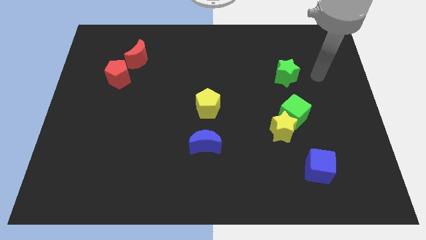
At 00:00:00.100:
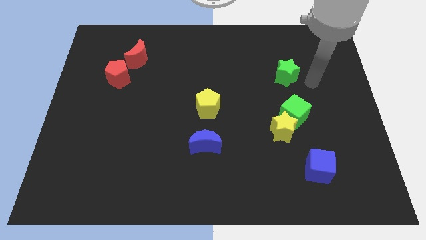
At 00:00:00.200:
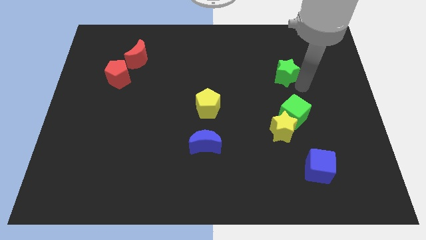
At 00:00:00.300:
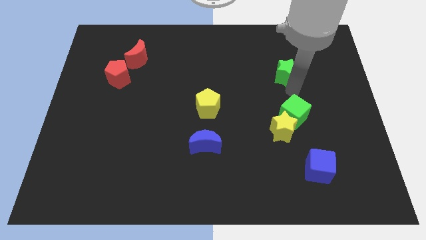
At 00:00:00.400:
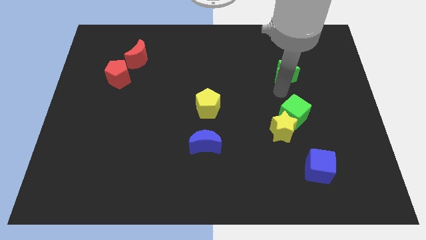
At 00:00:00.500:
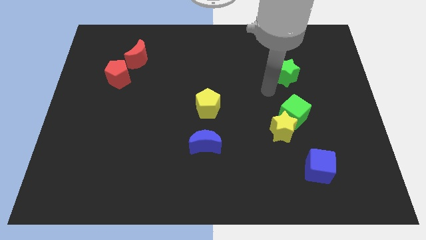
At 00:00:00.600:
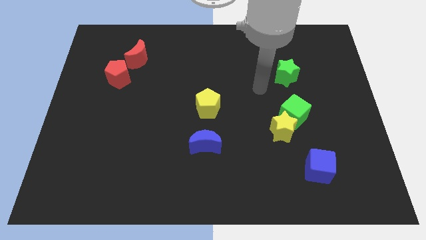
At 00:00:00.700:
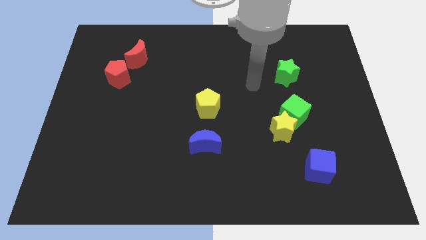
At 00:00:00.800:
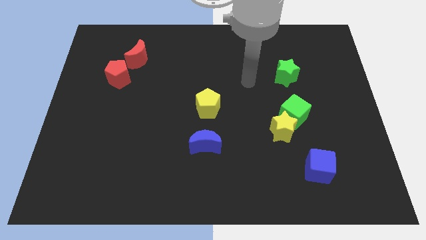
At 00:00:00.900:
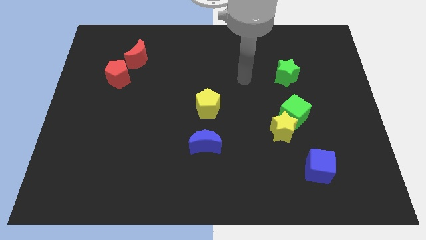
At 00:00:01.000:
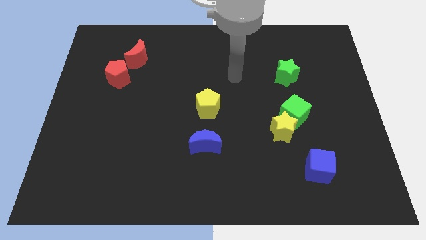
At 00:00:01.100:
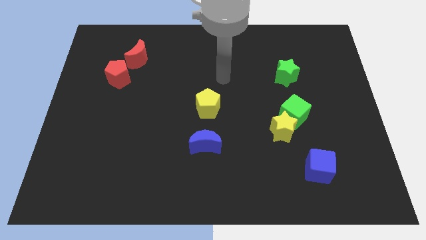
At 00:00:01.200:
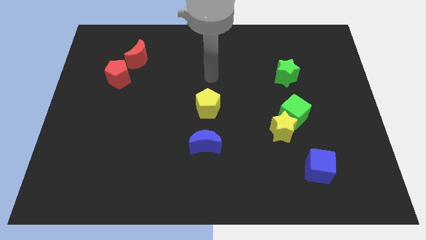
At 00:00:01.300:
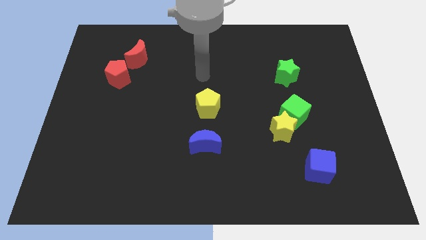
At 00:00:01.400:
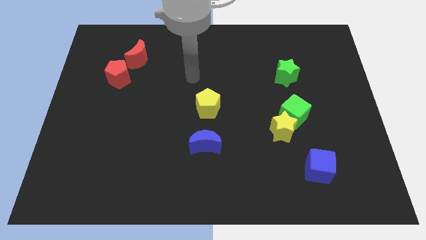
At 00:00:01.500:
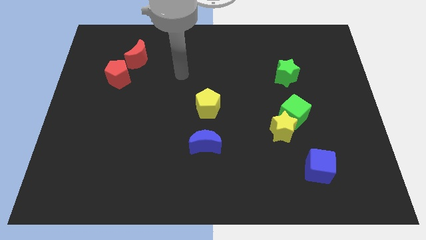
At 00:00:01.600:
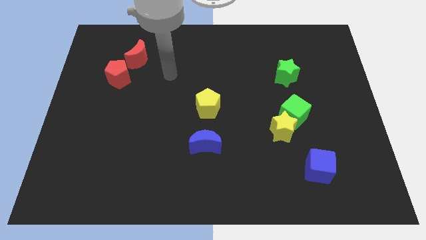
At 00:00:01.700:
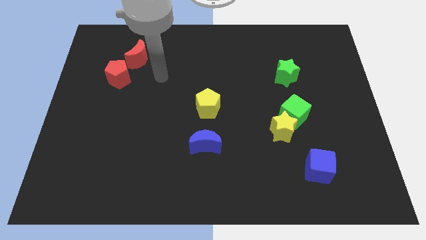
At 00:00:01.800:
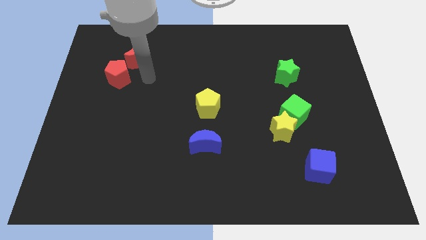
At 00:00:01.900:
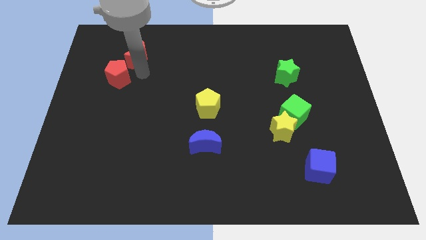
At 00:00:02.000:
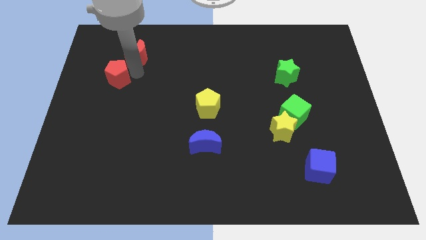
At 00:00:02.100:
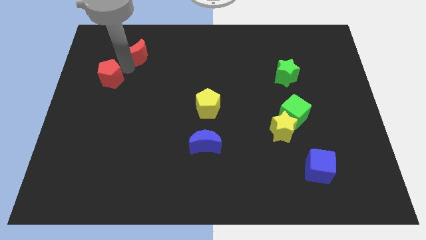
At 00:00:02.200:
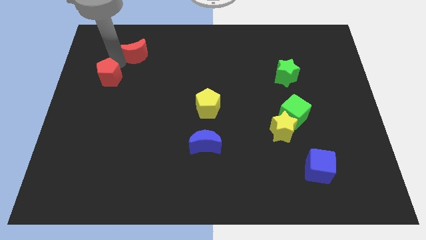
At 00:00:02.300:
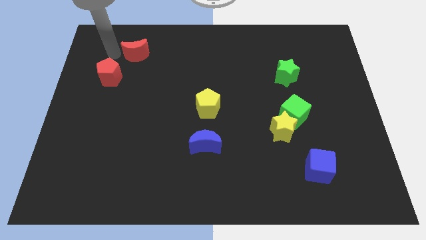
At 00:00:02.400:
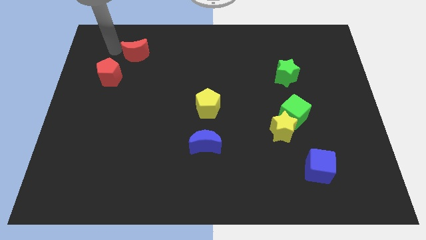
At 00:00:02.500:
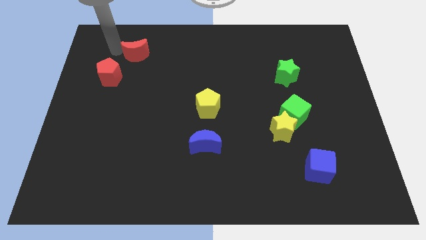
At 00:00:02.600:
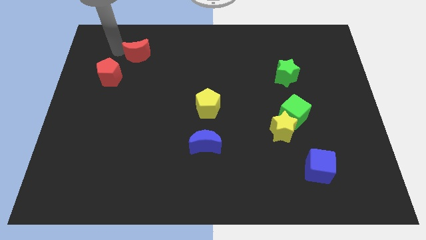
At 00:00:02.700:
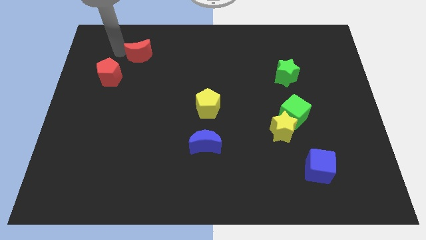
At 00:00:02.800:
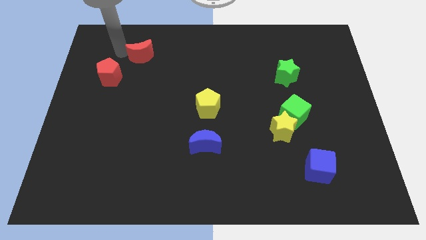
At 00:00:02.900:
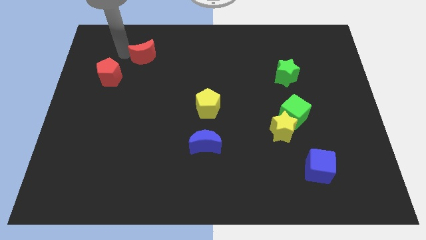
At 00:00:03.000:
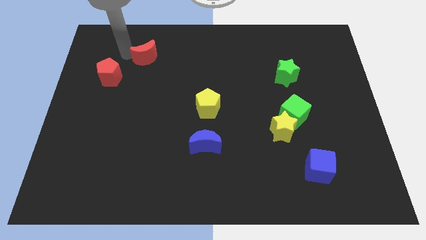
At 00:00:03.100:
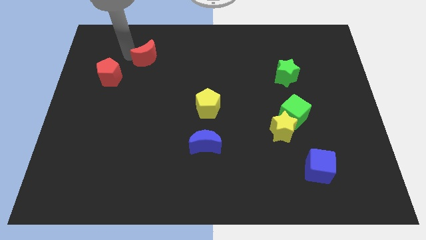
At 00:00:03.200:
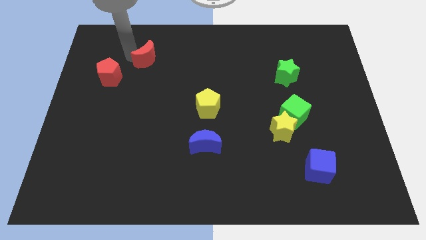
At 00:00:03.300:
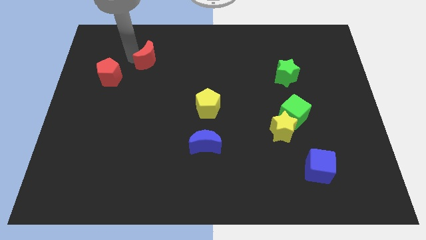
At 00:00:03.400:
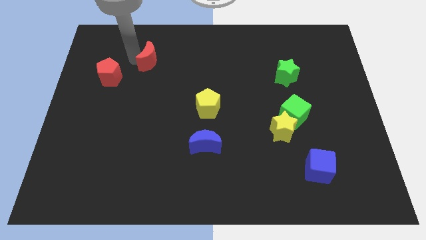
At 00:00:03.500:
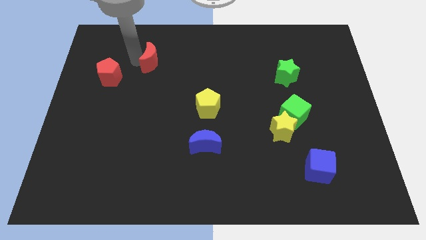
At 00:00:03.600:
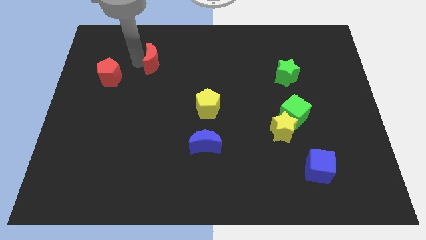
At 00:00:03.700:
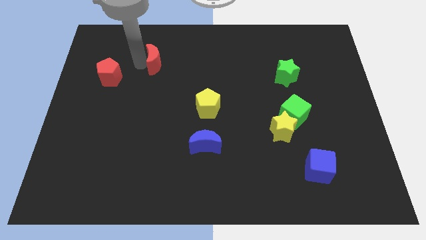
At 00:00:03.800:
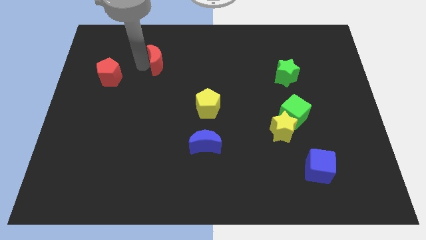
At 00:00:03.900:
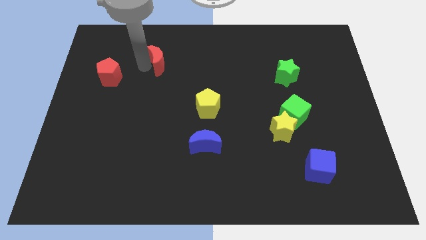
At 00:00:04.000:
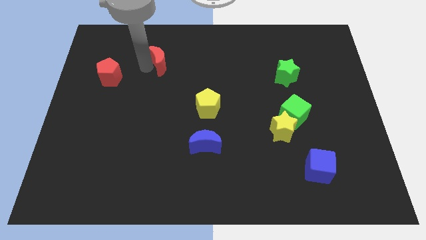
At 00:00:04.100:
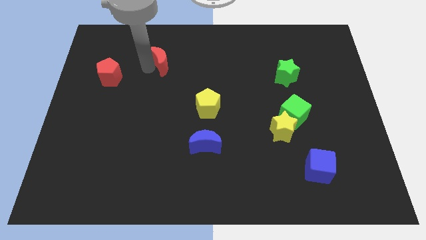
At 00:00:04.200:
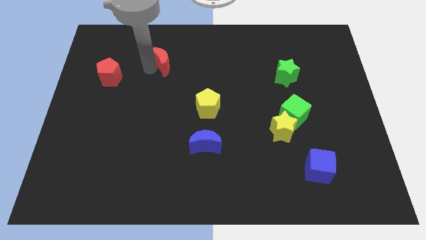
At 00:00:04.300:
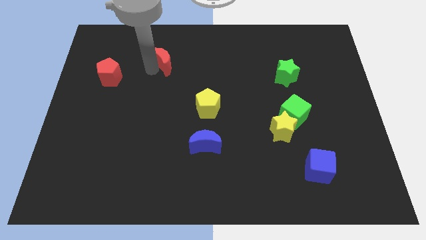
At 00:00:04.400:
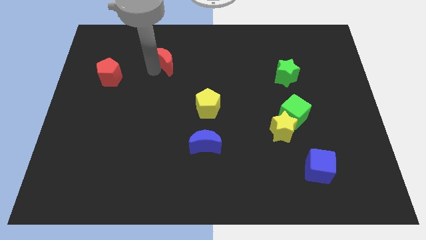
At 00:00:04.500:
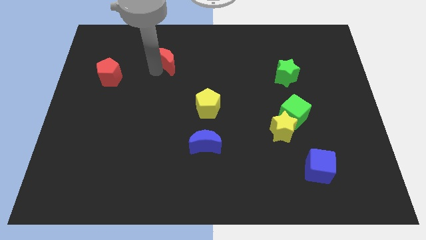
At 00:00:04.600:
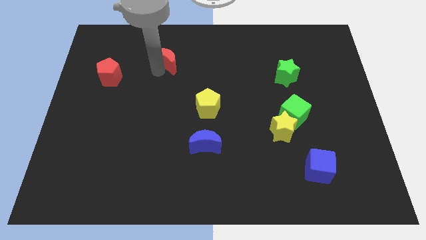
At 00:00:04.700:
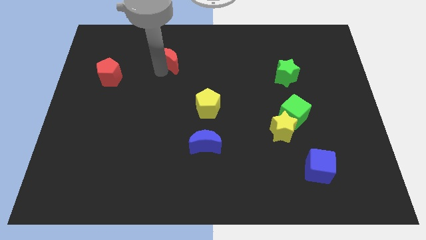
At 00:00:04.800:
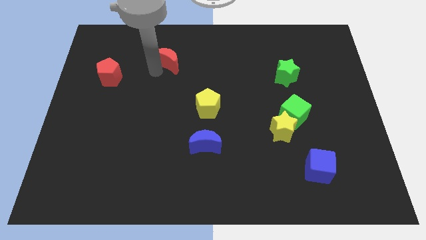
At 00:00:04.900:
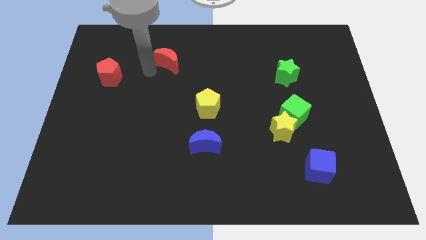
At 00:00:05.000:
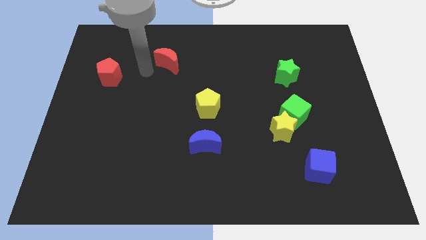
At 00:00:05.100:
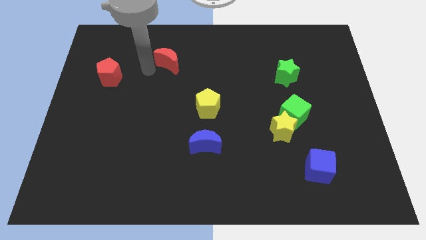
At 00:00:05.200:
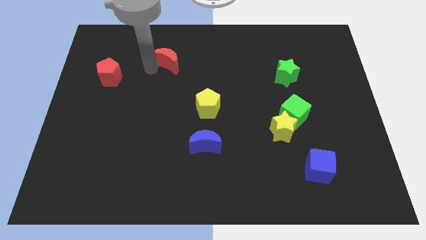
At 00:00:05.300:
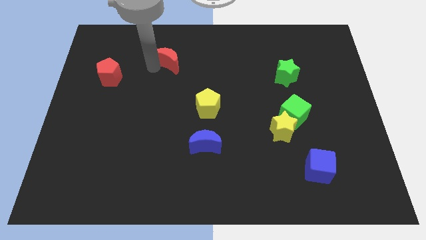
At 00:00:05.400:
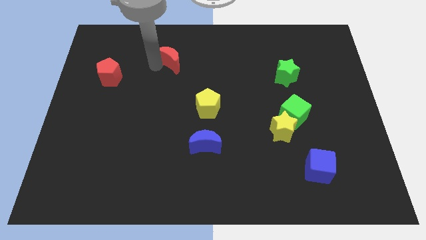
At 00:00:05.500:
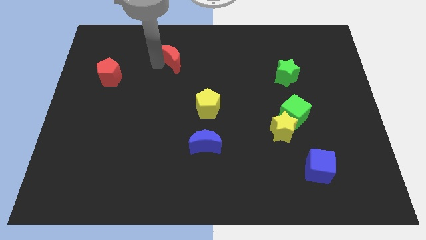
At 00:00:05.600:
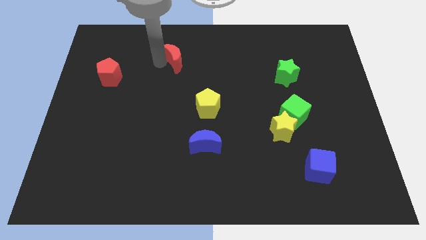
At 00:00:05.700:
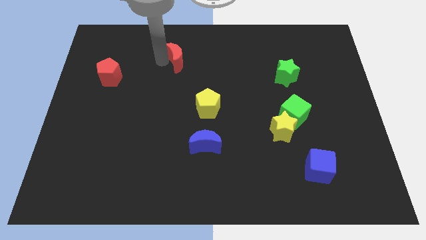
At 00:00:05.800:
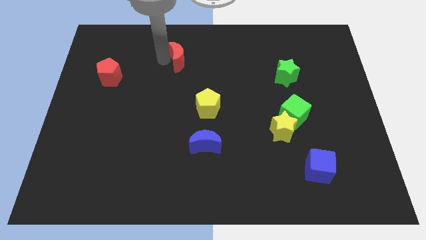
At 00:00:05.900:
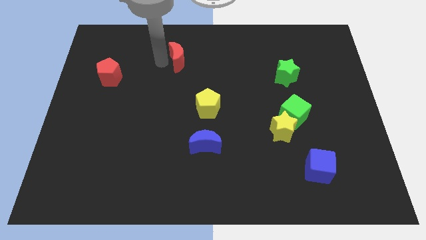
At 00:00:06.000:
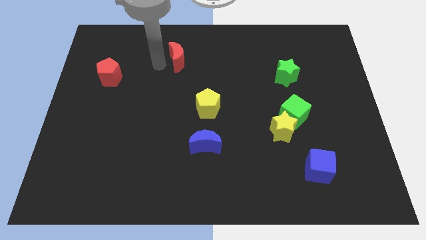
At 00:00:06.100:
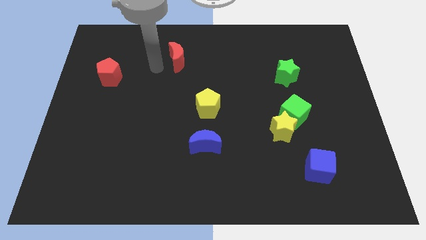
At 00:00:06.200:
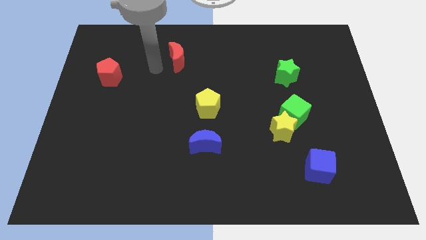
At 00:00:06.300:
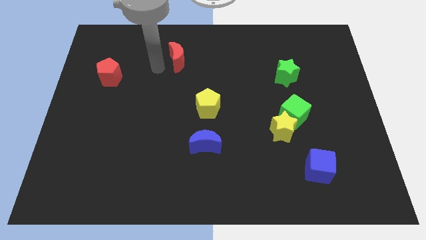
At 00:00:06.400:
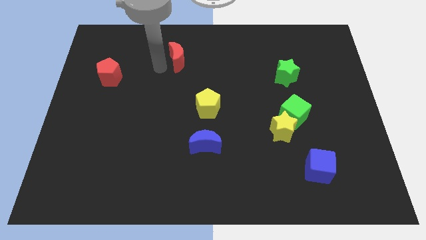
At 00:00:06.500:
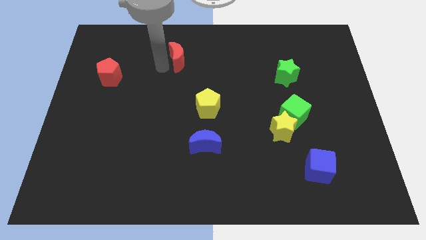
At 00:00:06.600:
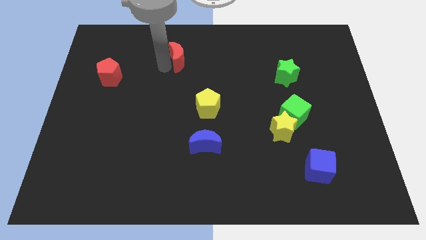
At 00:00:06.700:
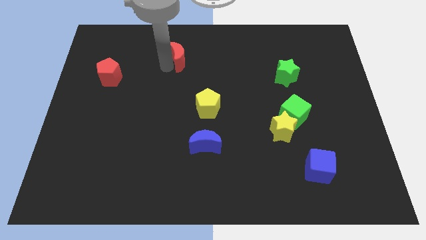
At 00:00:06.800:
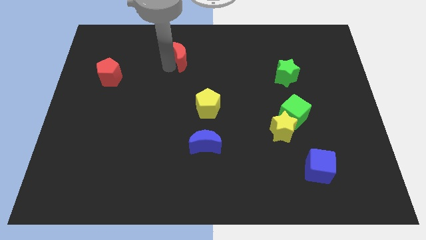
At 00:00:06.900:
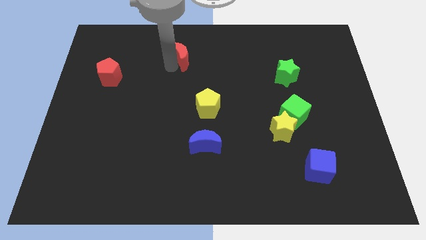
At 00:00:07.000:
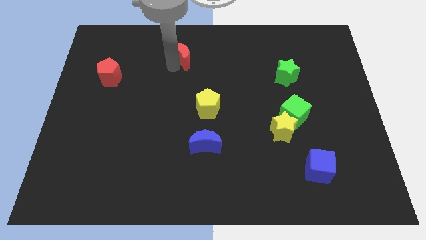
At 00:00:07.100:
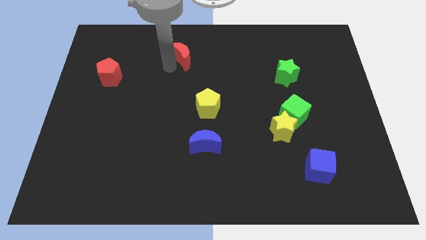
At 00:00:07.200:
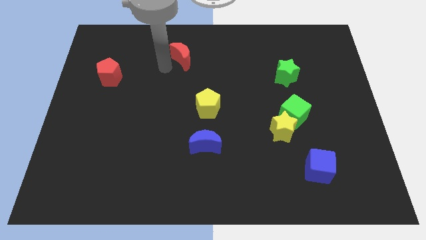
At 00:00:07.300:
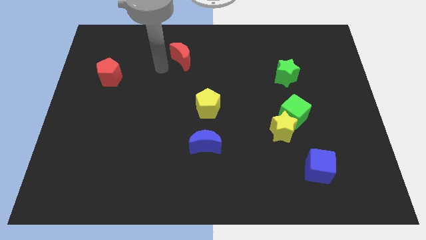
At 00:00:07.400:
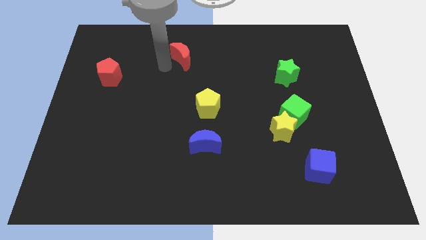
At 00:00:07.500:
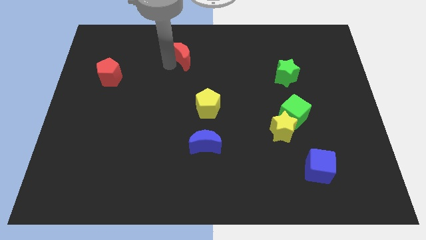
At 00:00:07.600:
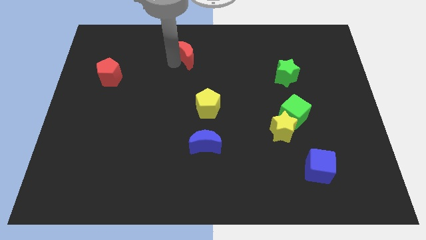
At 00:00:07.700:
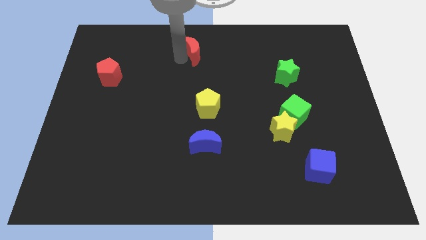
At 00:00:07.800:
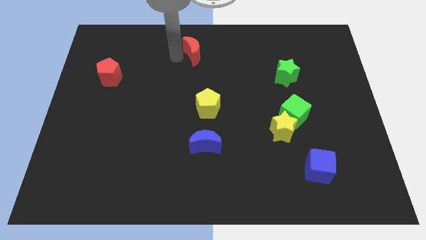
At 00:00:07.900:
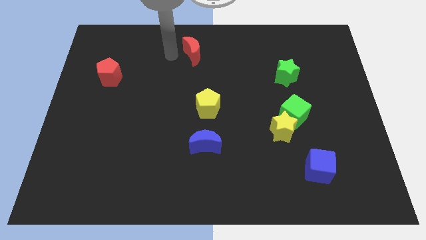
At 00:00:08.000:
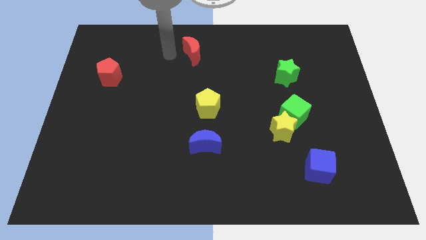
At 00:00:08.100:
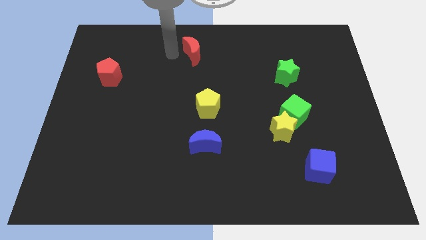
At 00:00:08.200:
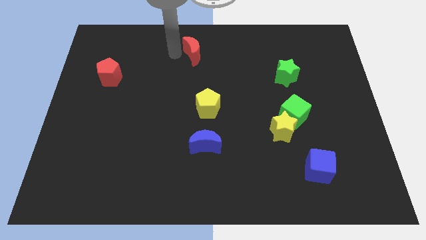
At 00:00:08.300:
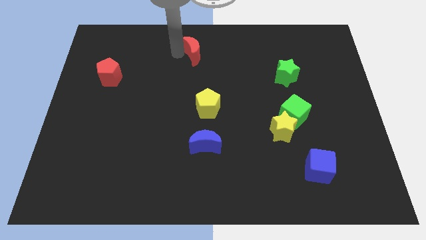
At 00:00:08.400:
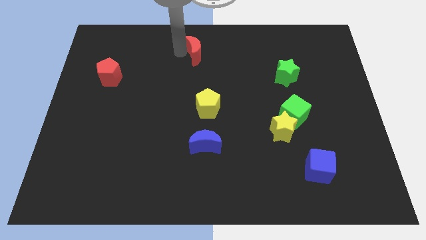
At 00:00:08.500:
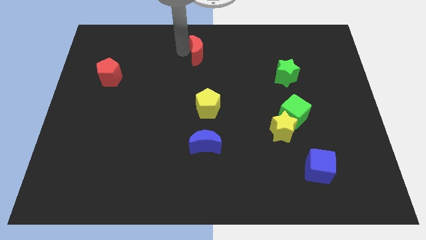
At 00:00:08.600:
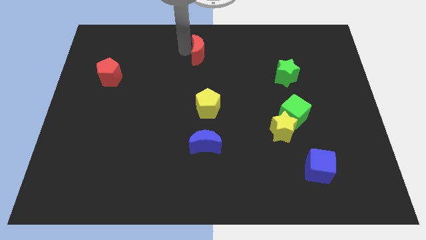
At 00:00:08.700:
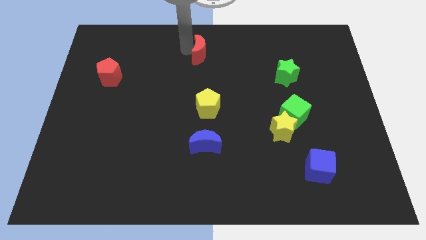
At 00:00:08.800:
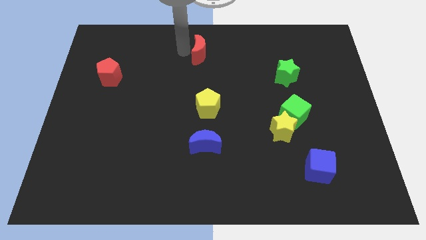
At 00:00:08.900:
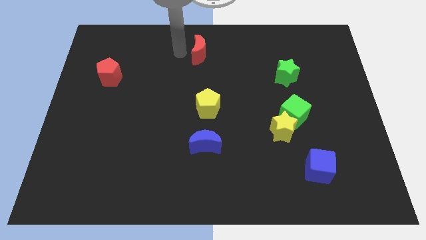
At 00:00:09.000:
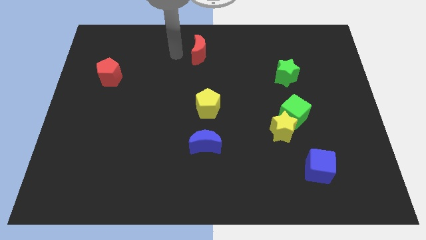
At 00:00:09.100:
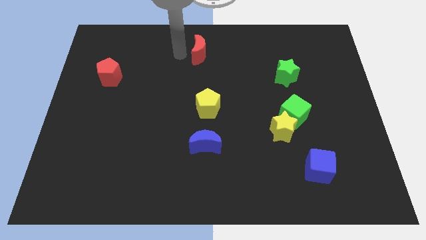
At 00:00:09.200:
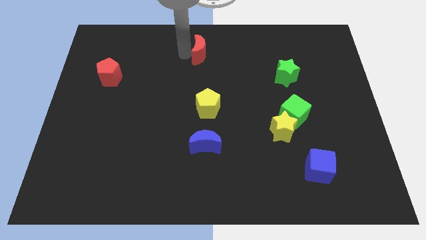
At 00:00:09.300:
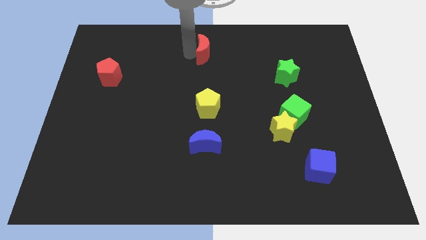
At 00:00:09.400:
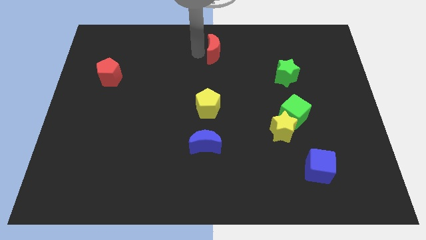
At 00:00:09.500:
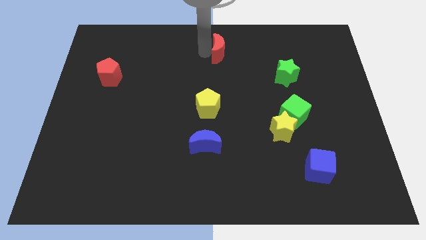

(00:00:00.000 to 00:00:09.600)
slide the red moon right
